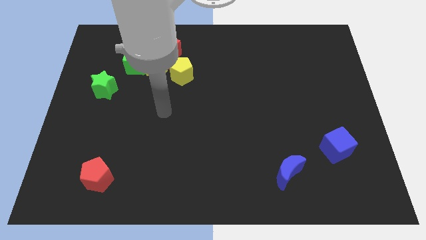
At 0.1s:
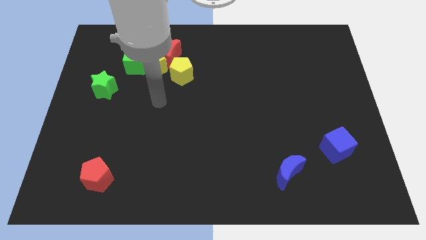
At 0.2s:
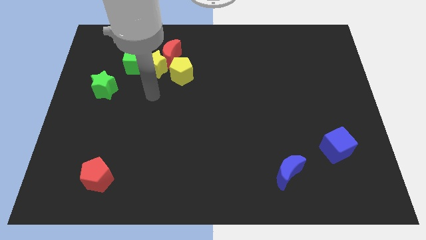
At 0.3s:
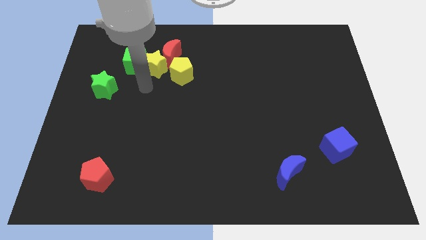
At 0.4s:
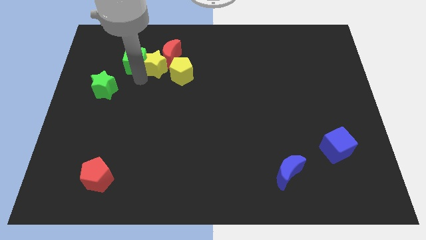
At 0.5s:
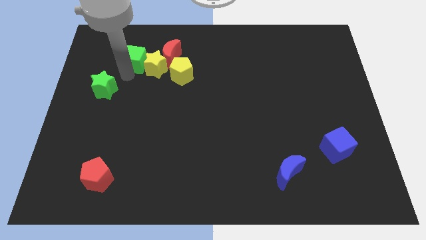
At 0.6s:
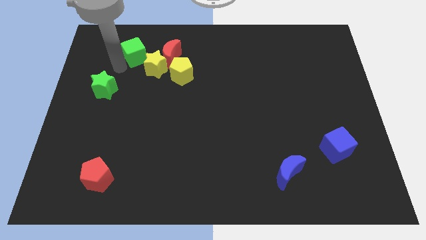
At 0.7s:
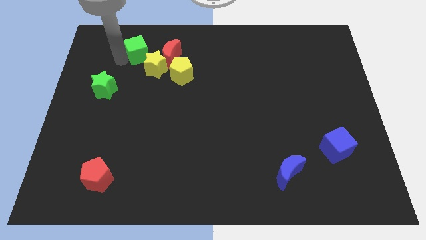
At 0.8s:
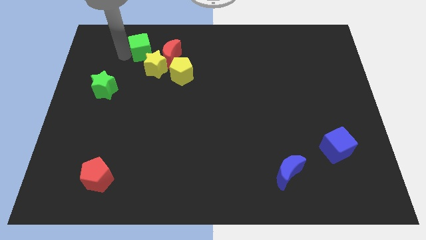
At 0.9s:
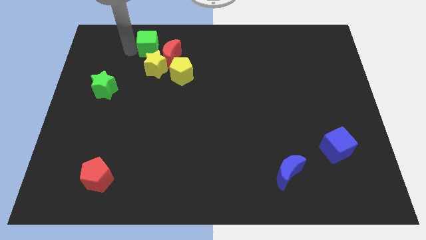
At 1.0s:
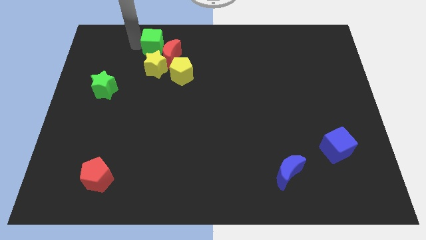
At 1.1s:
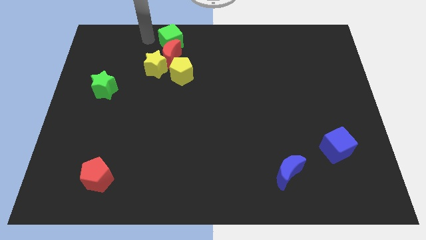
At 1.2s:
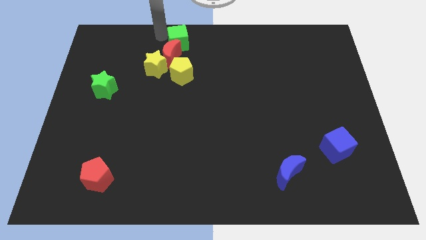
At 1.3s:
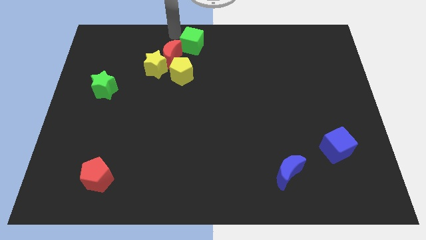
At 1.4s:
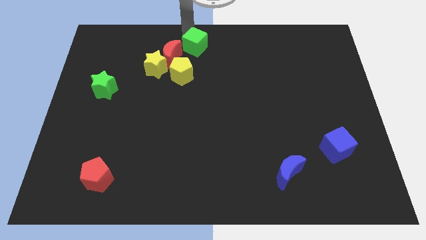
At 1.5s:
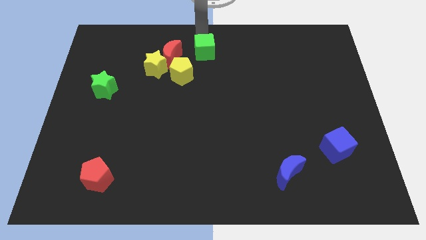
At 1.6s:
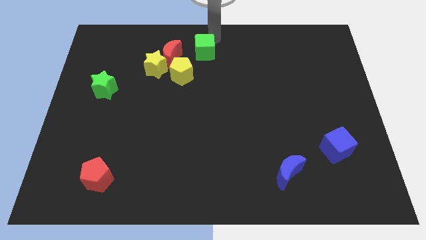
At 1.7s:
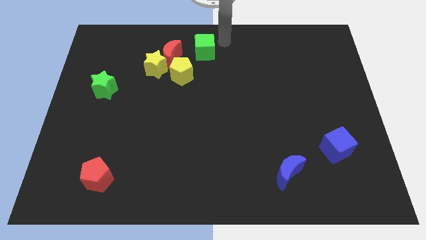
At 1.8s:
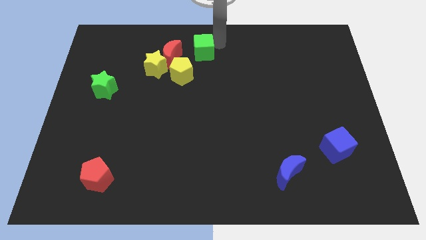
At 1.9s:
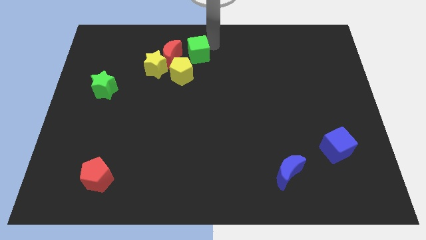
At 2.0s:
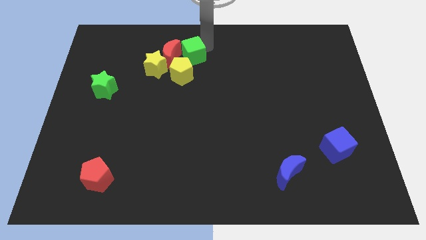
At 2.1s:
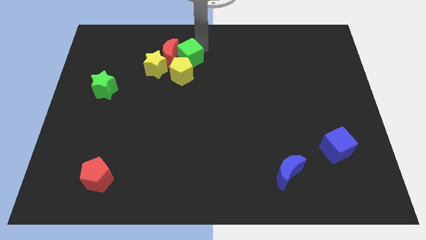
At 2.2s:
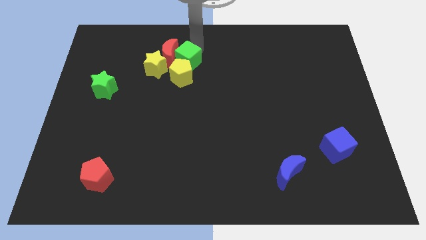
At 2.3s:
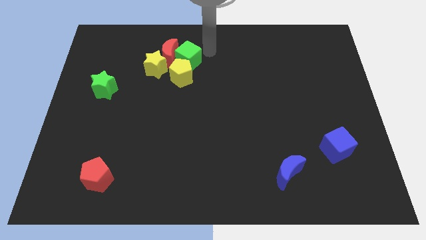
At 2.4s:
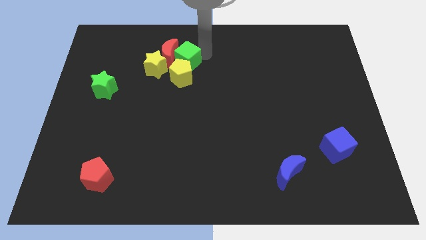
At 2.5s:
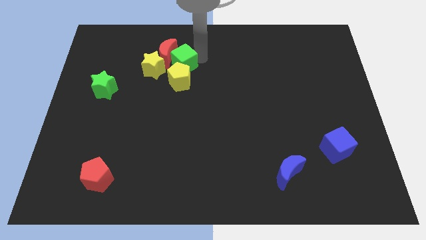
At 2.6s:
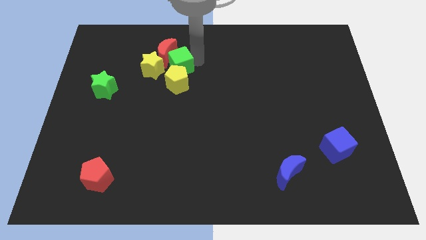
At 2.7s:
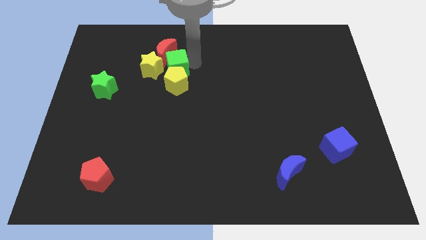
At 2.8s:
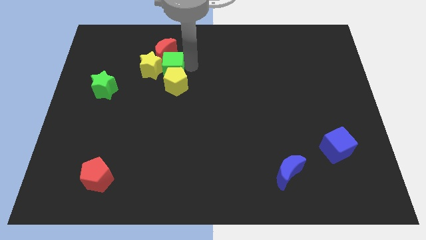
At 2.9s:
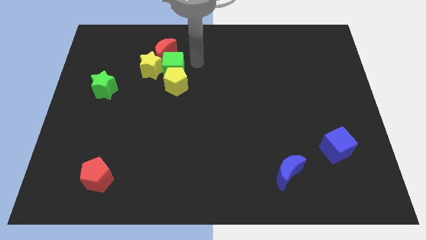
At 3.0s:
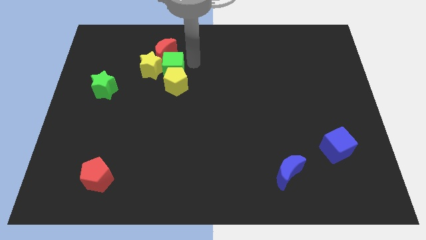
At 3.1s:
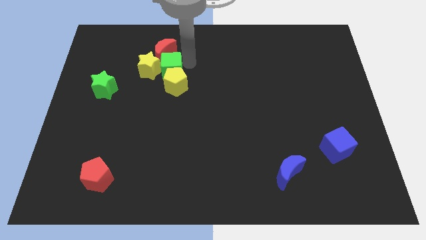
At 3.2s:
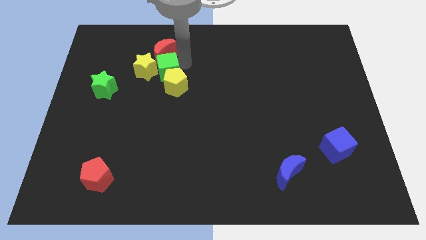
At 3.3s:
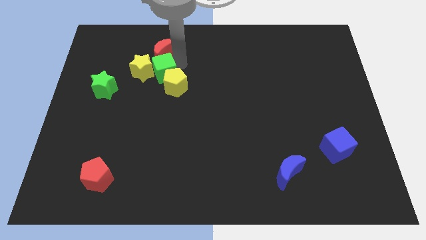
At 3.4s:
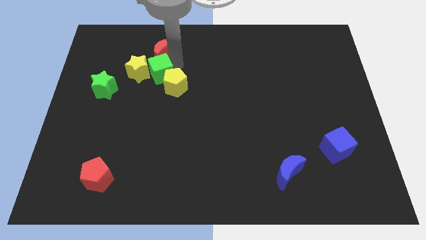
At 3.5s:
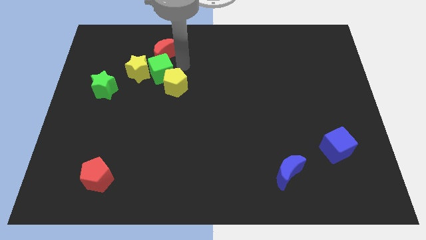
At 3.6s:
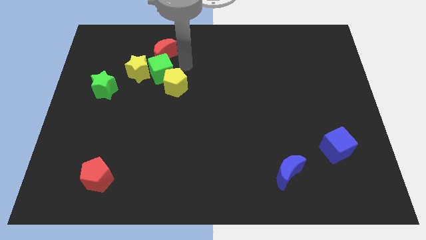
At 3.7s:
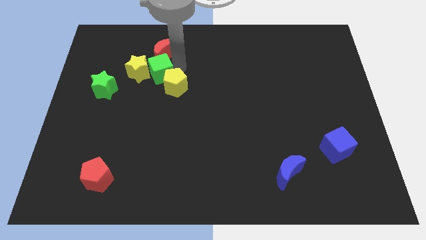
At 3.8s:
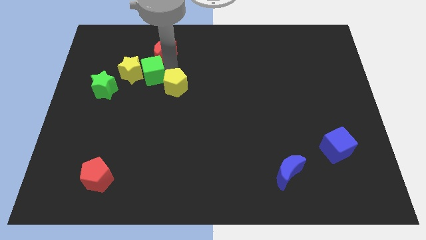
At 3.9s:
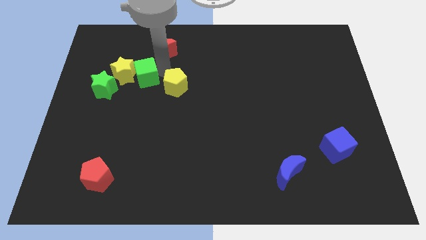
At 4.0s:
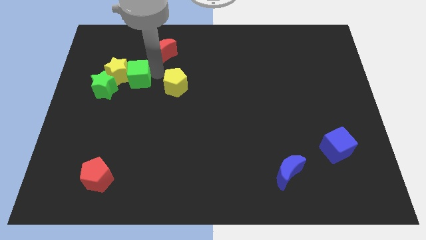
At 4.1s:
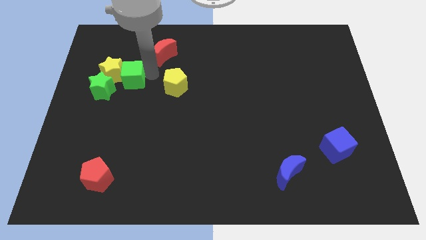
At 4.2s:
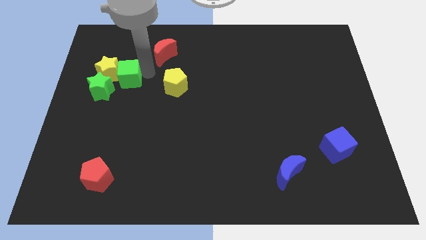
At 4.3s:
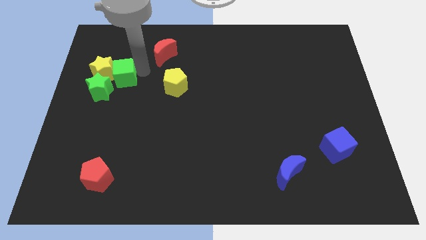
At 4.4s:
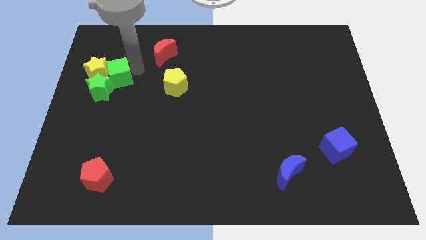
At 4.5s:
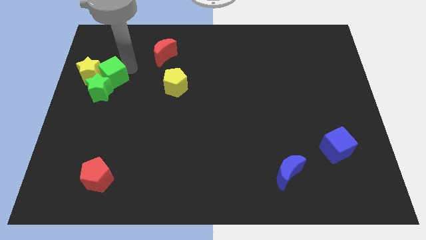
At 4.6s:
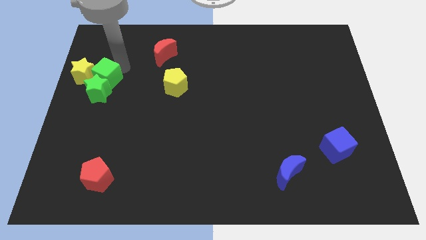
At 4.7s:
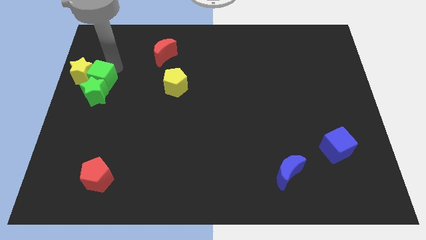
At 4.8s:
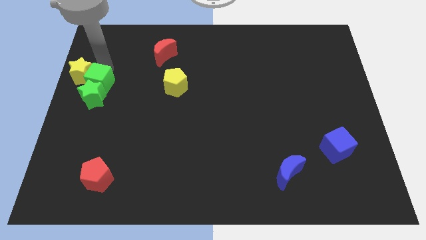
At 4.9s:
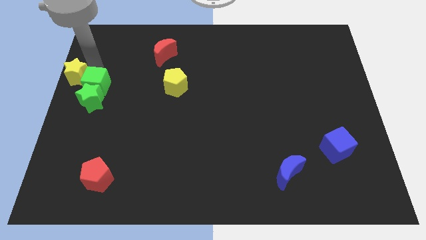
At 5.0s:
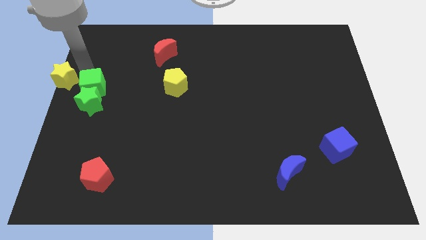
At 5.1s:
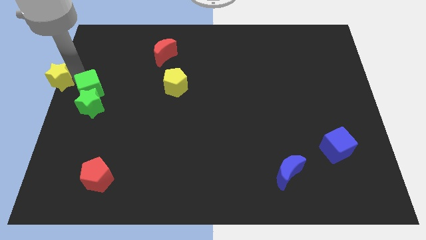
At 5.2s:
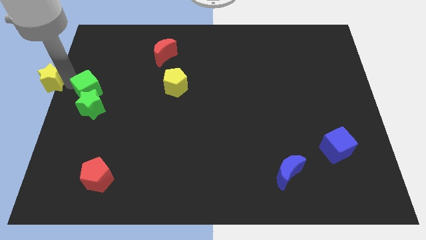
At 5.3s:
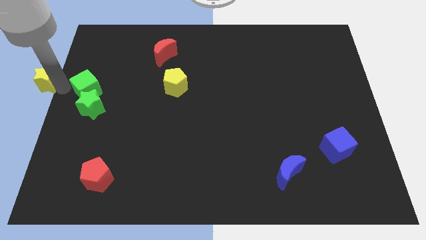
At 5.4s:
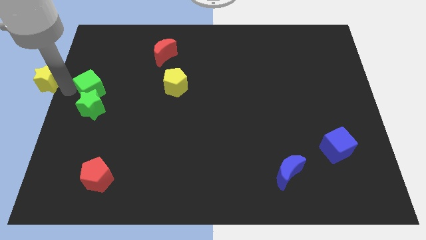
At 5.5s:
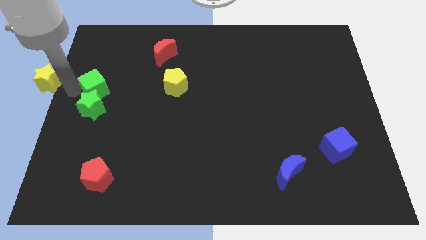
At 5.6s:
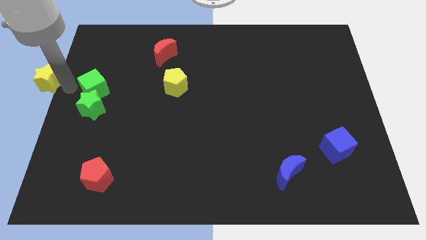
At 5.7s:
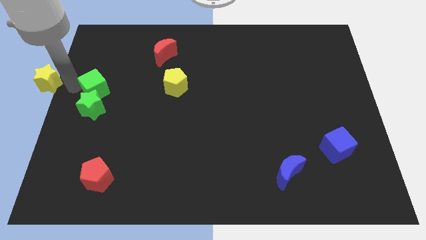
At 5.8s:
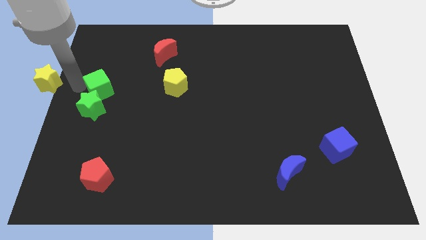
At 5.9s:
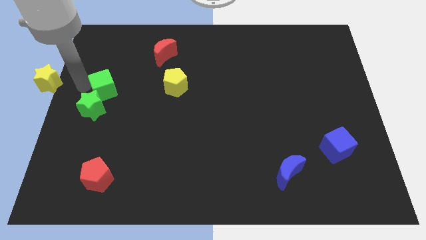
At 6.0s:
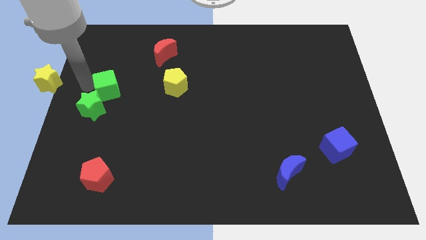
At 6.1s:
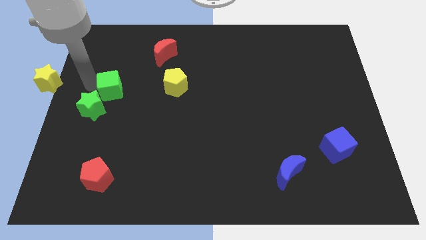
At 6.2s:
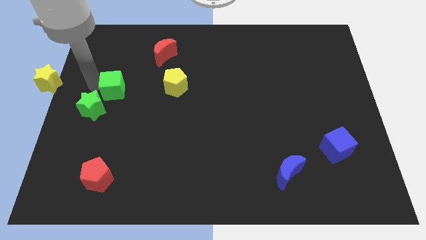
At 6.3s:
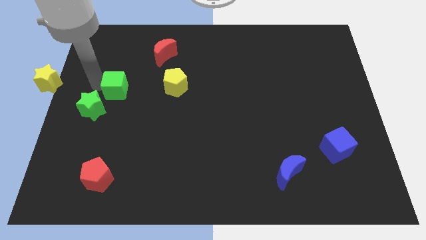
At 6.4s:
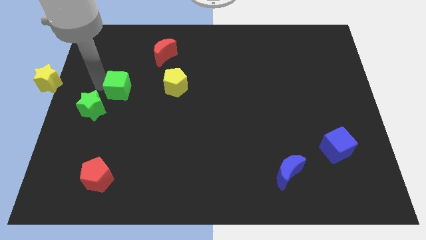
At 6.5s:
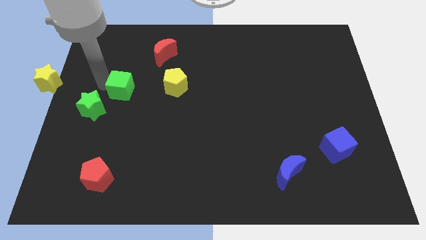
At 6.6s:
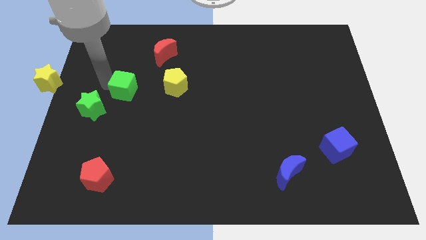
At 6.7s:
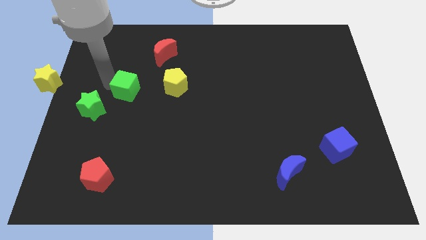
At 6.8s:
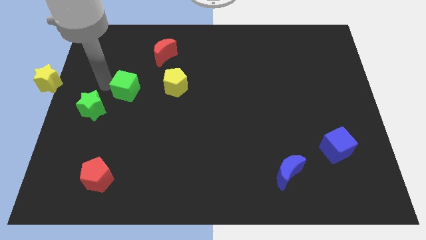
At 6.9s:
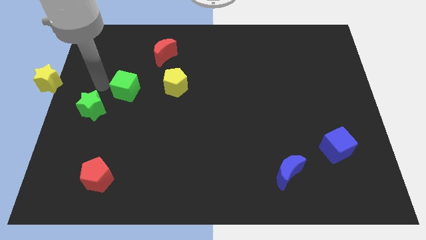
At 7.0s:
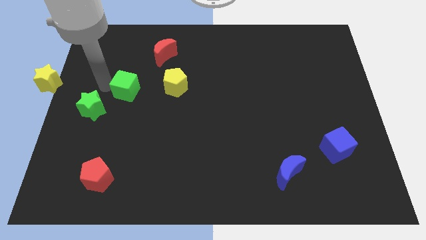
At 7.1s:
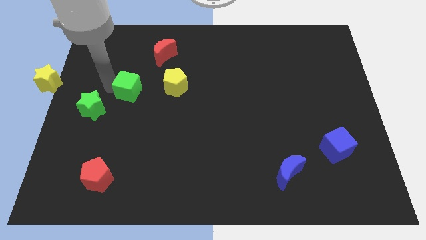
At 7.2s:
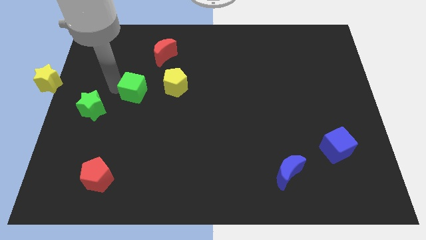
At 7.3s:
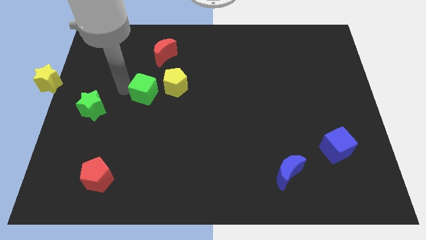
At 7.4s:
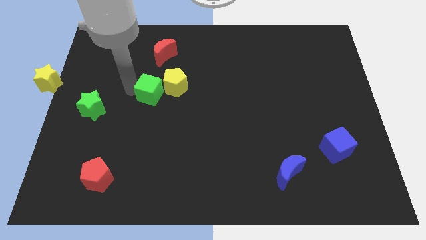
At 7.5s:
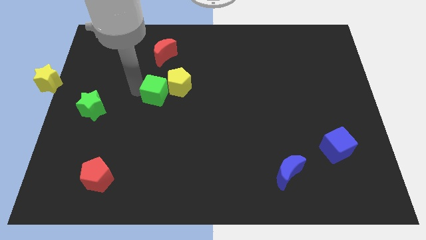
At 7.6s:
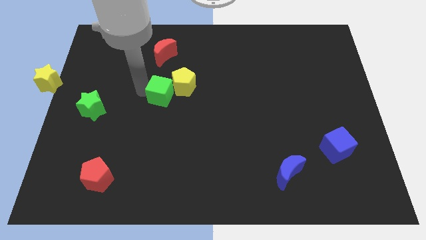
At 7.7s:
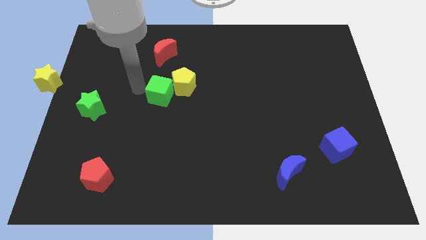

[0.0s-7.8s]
push the green cube to the middle
